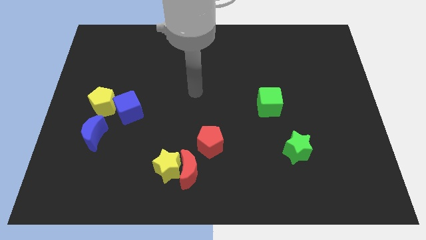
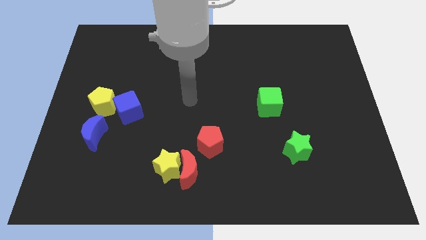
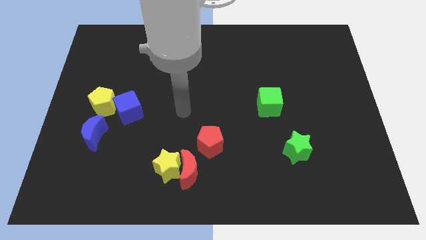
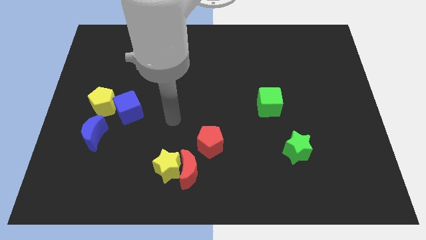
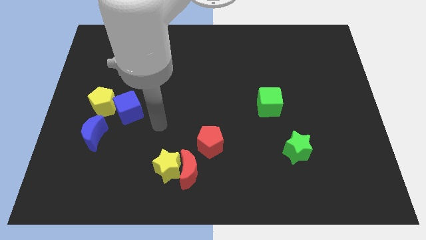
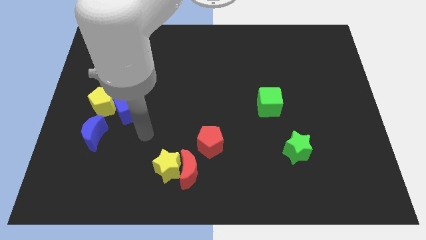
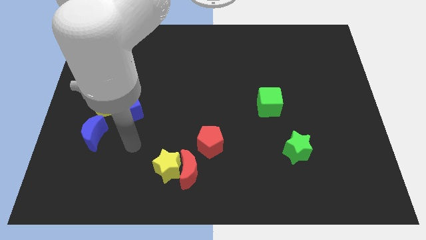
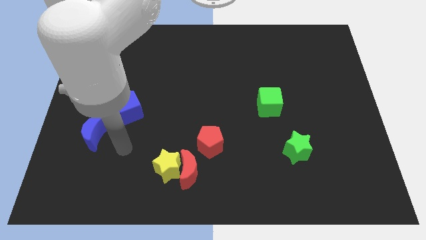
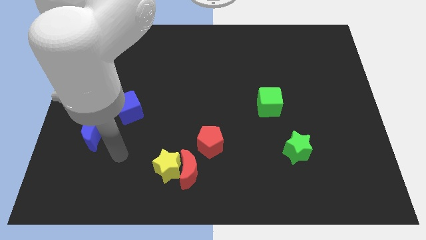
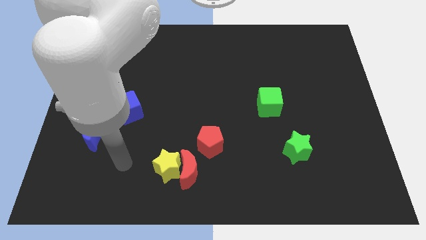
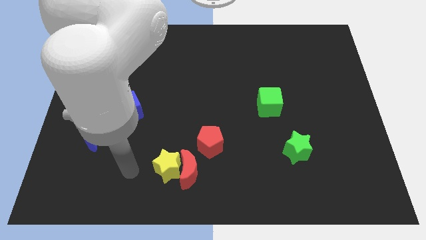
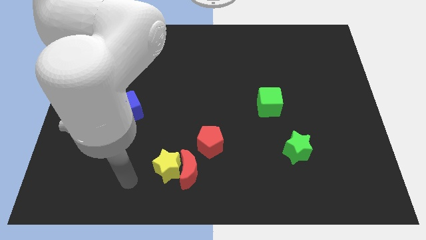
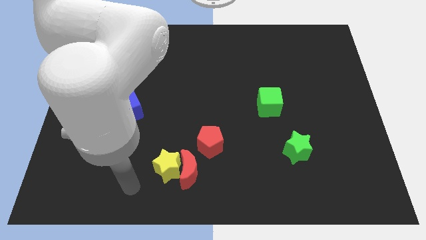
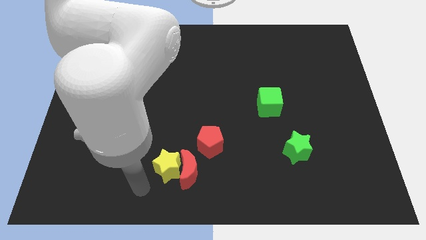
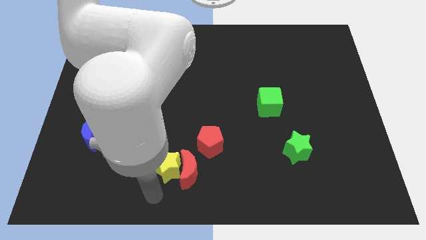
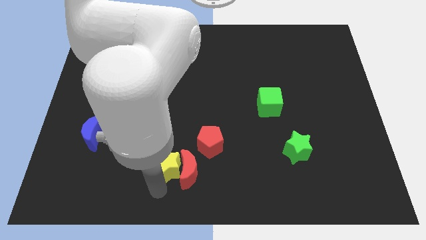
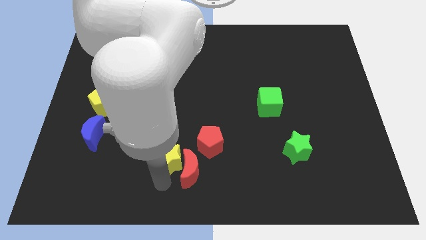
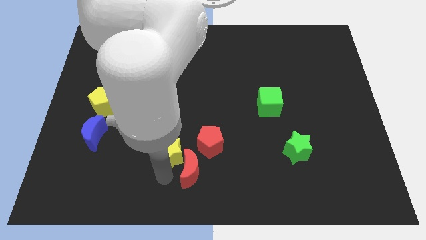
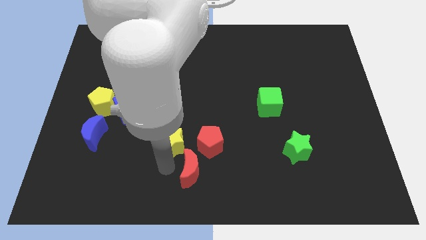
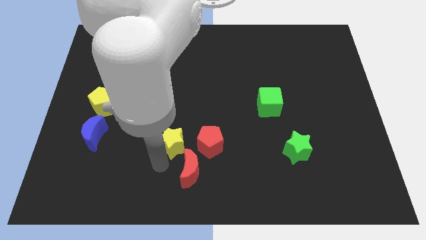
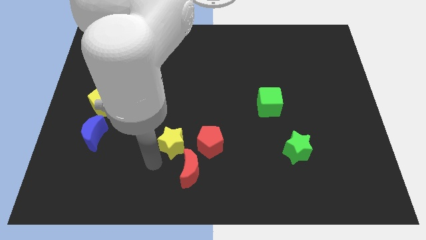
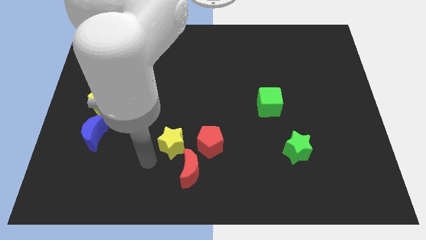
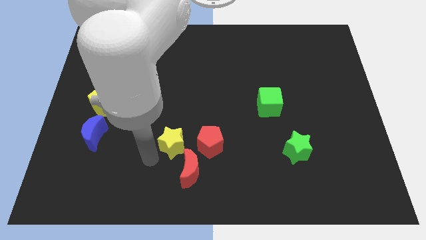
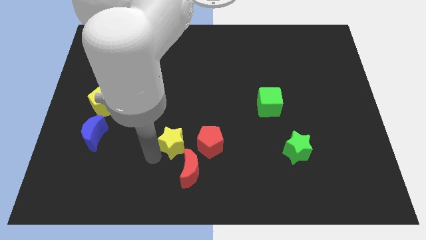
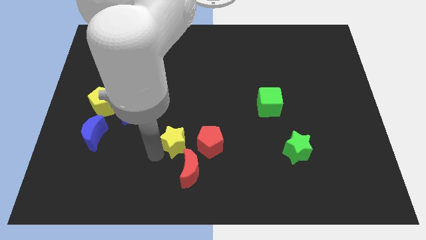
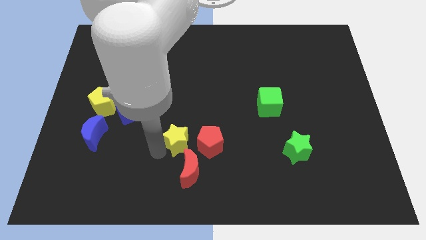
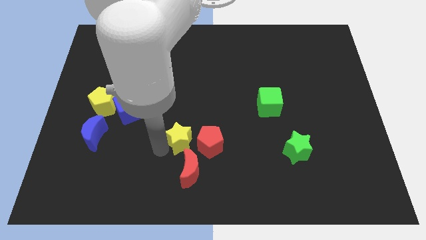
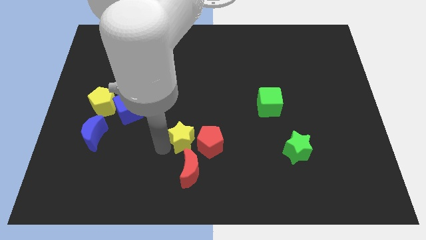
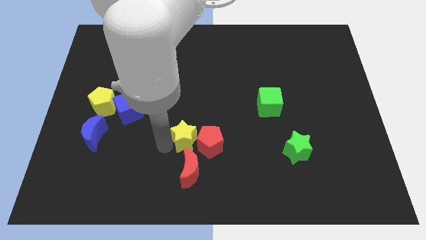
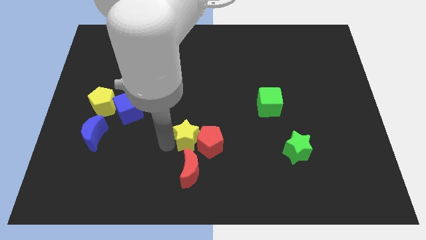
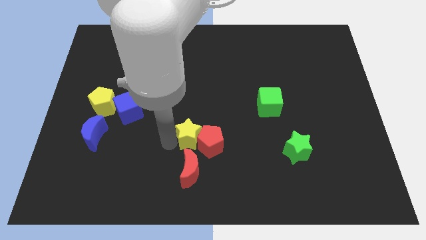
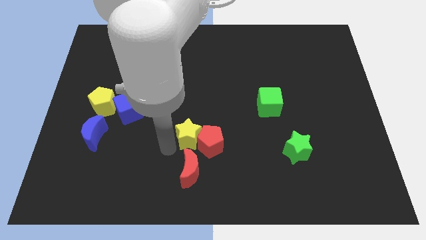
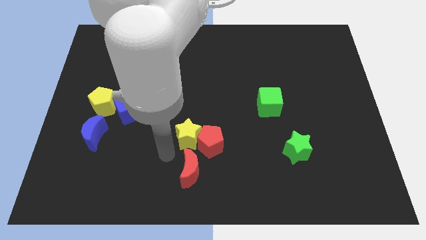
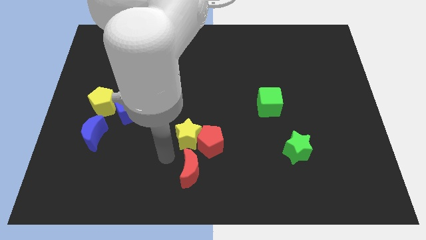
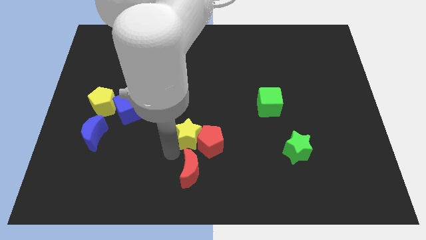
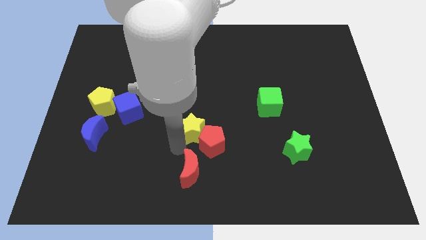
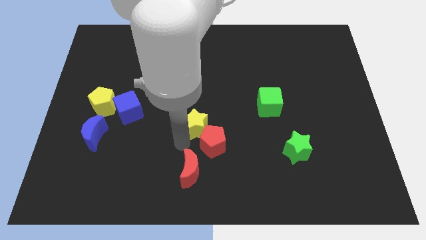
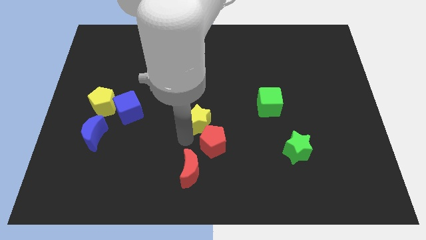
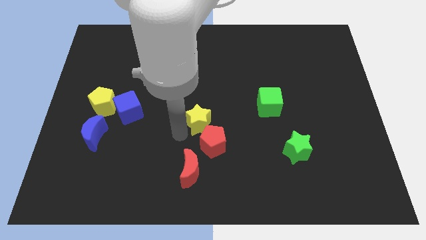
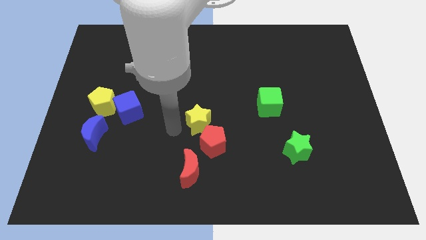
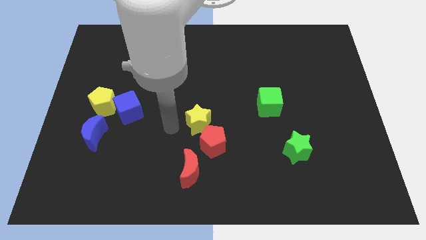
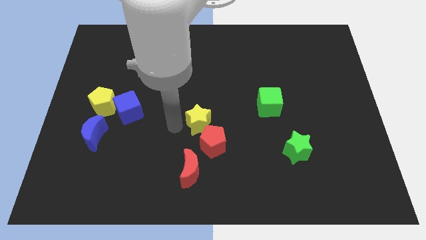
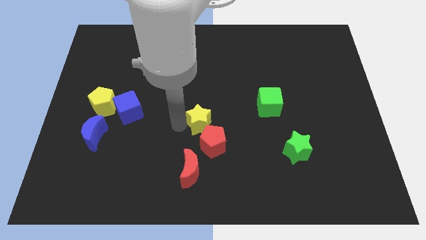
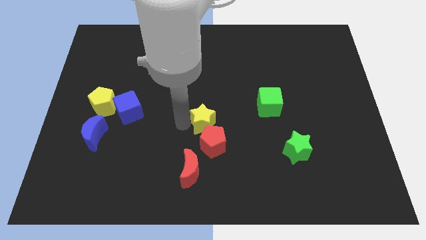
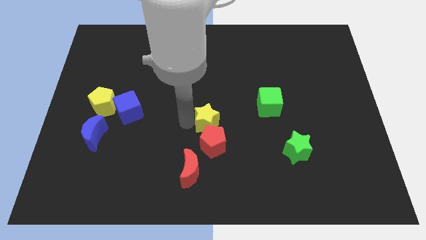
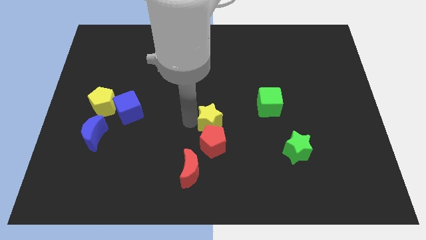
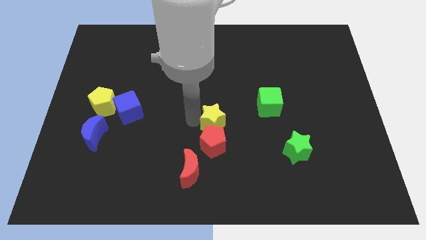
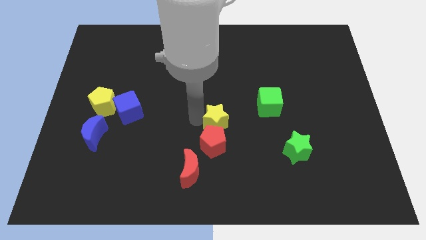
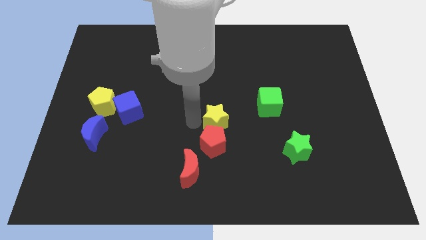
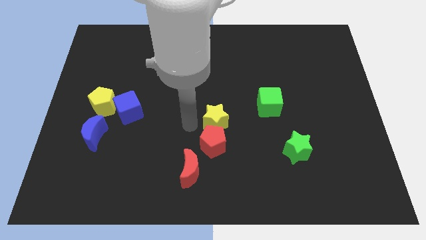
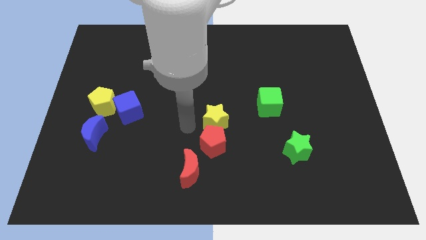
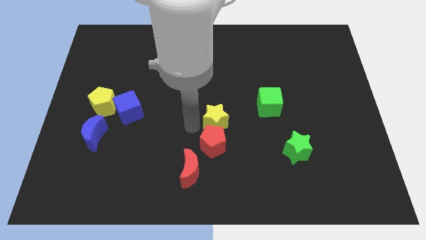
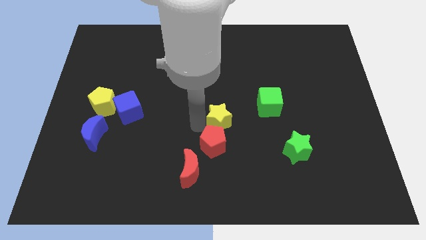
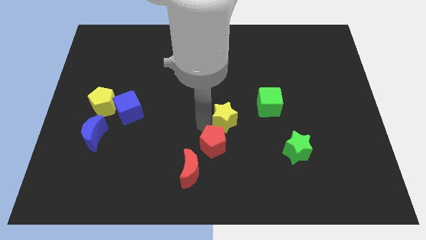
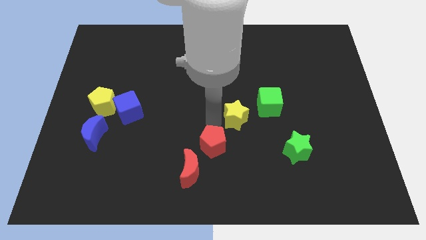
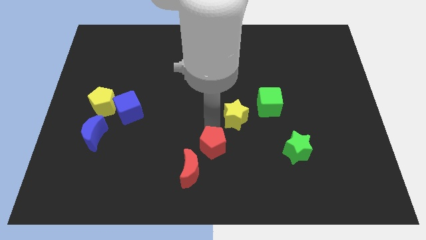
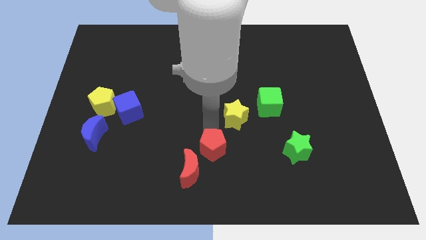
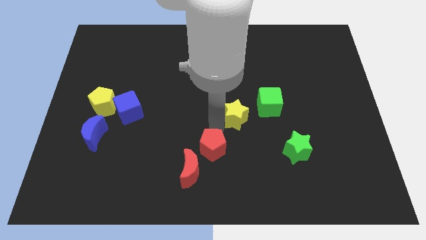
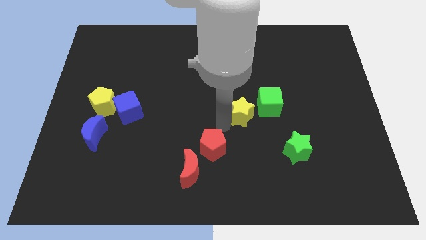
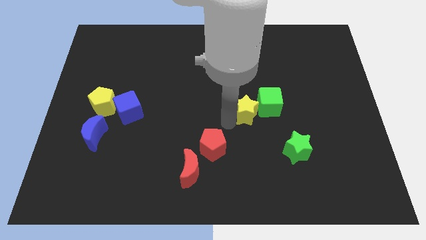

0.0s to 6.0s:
push the yellow star to the green cube

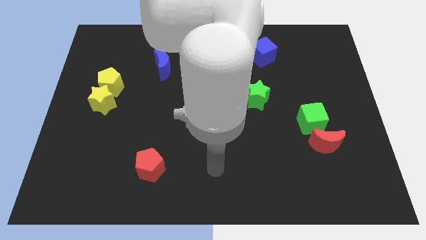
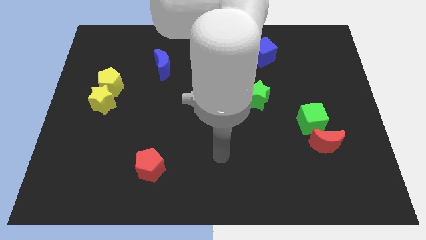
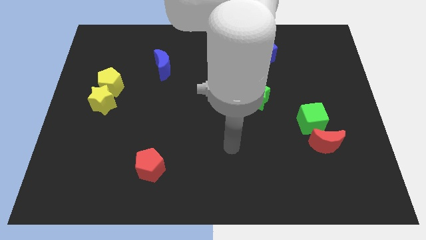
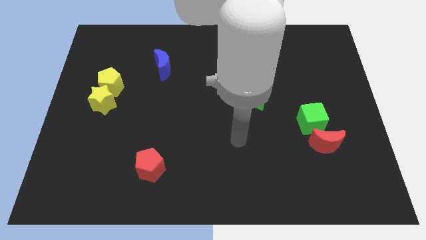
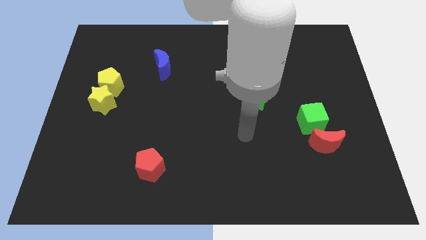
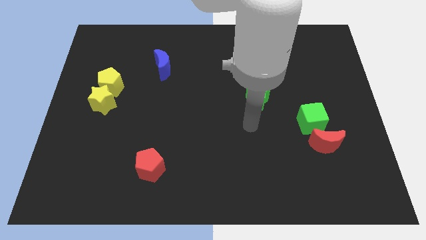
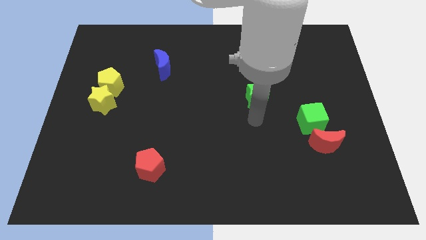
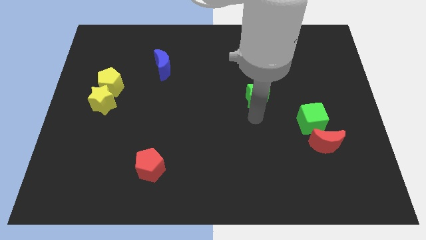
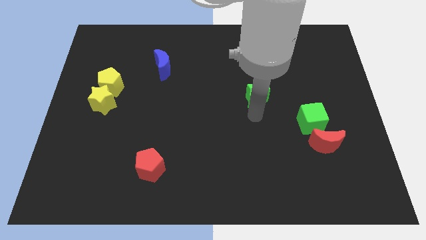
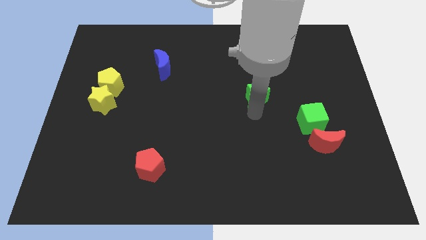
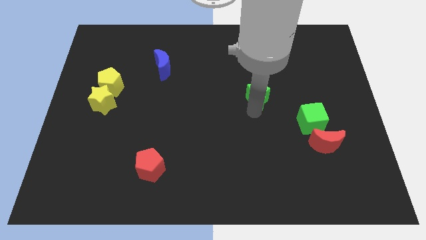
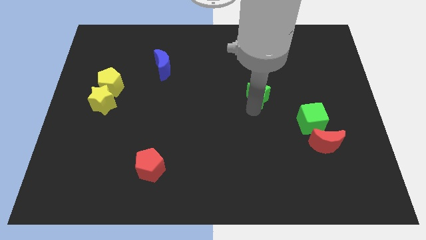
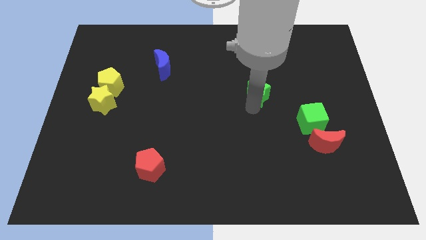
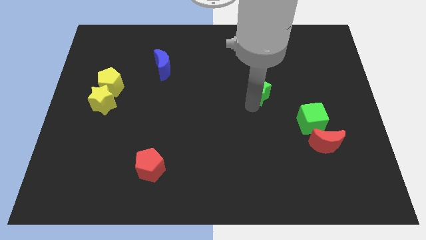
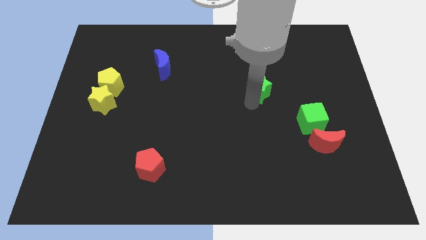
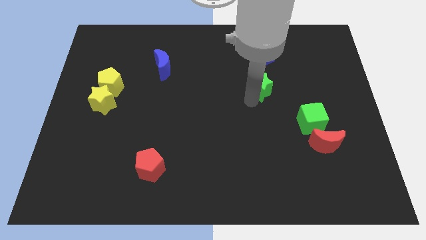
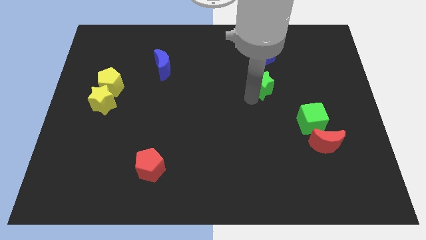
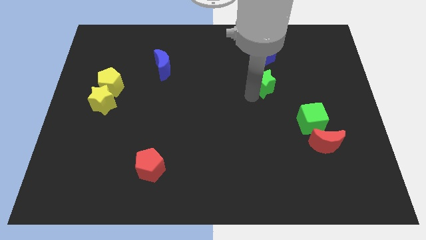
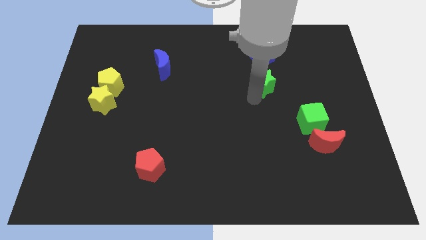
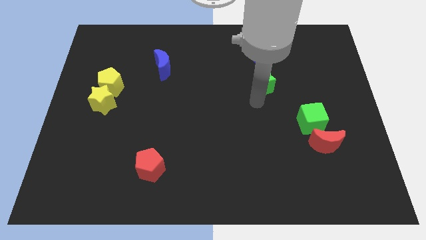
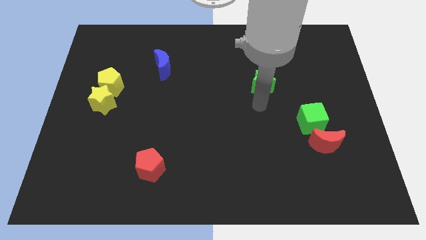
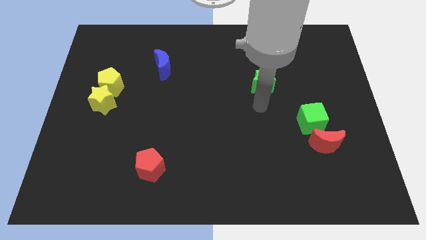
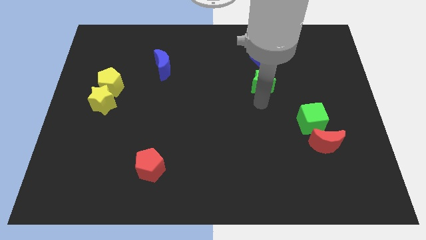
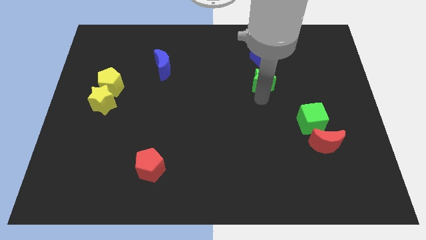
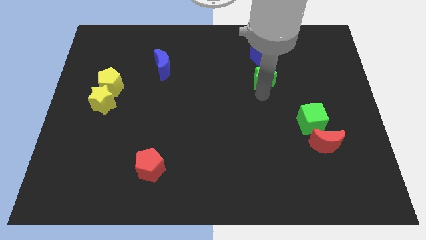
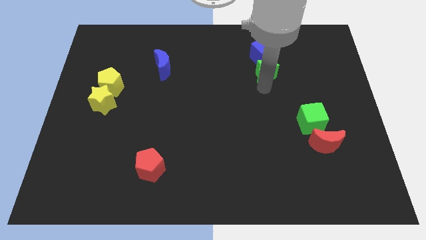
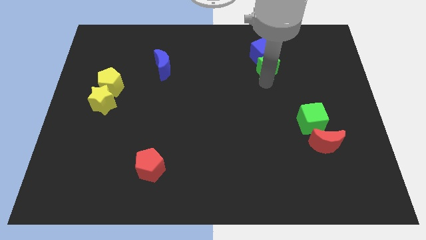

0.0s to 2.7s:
push the green star to the blue cube
